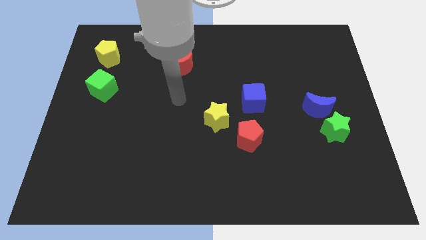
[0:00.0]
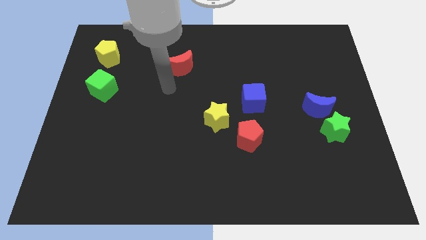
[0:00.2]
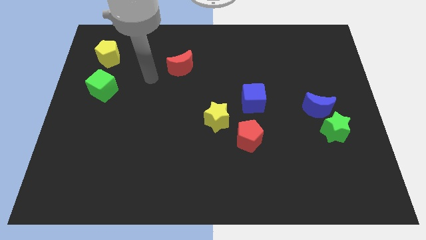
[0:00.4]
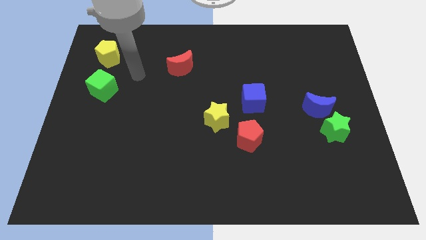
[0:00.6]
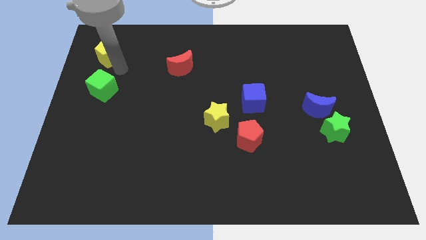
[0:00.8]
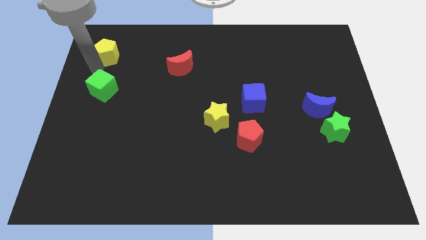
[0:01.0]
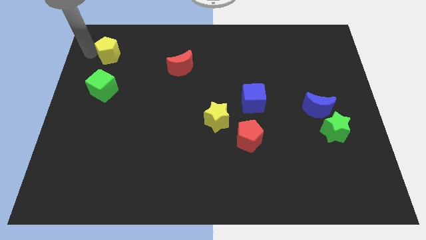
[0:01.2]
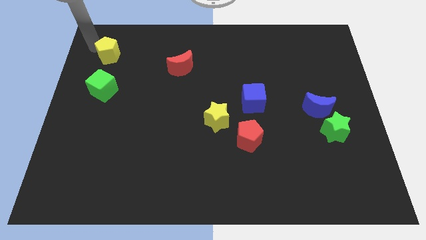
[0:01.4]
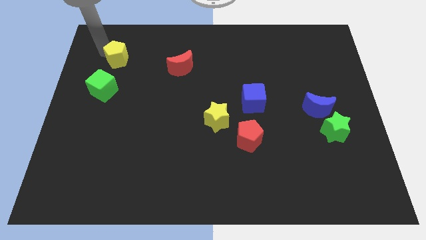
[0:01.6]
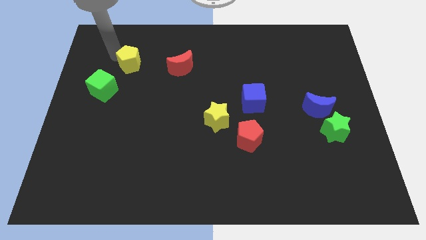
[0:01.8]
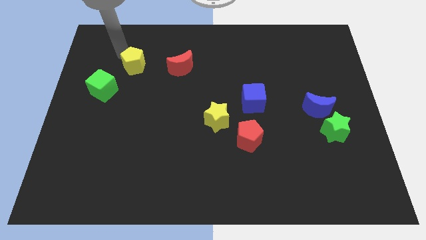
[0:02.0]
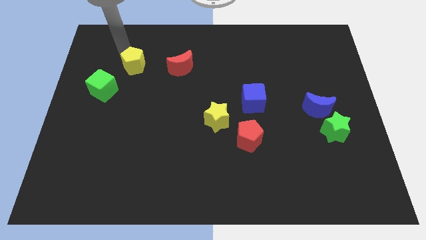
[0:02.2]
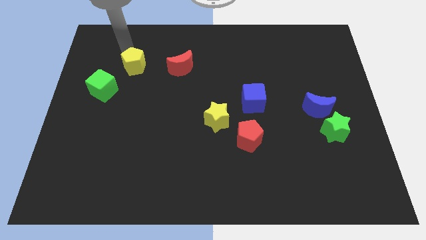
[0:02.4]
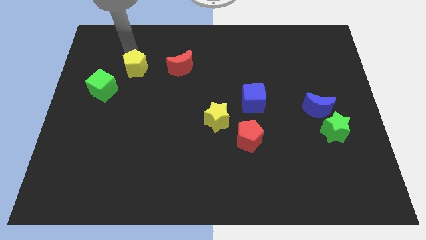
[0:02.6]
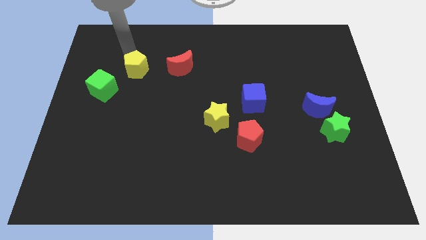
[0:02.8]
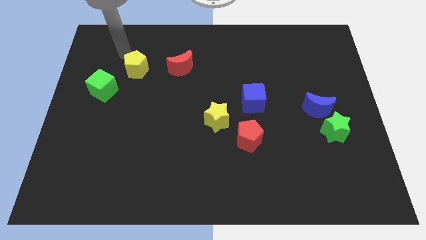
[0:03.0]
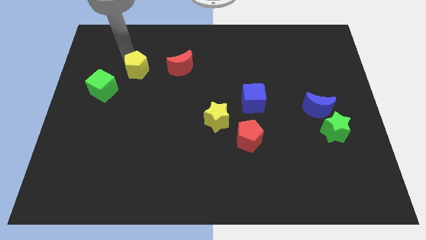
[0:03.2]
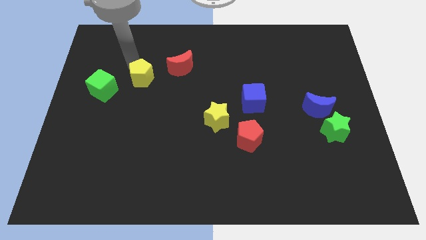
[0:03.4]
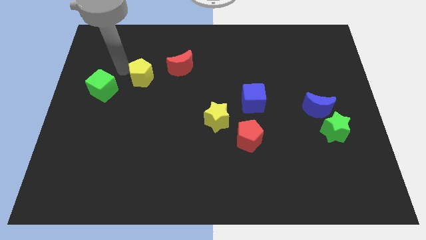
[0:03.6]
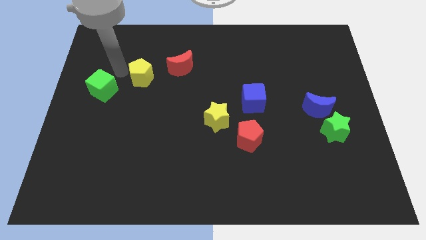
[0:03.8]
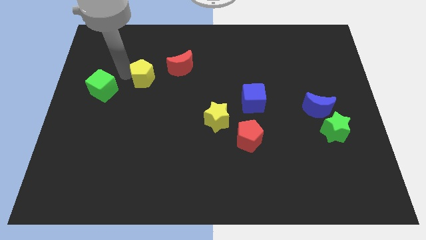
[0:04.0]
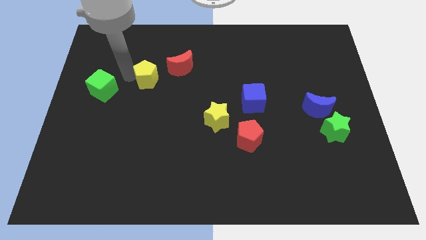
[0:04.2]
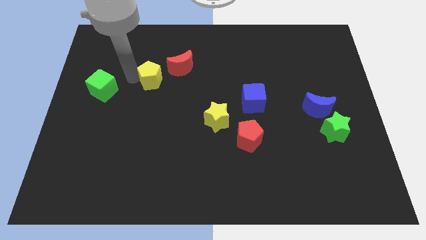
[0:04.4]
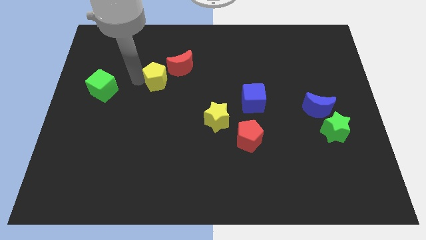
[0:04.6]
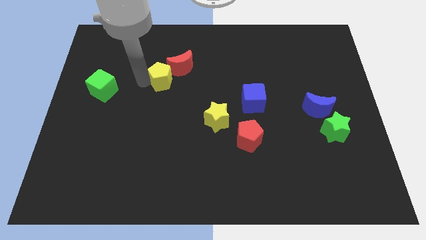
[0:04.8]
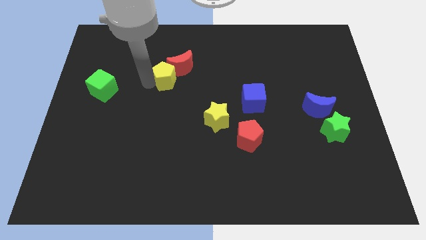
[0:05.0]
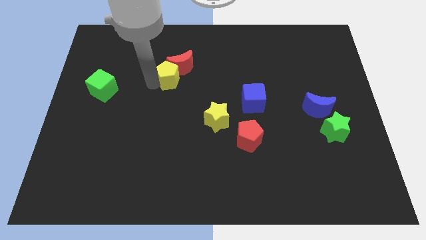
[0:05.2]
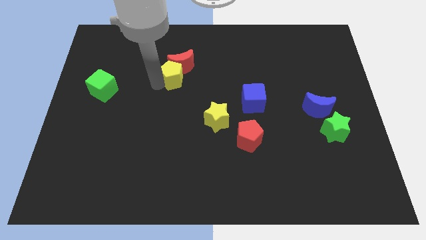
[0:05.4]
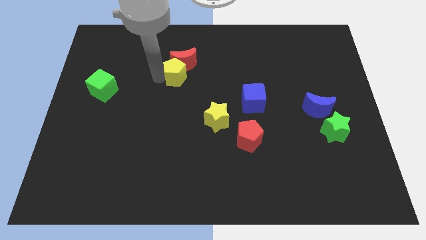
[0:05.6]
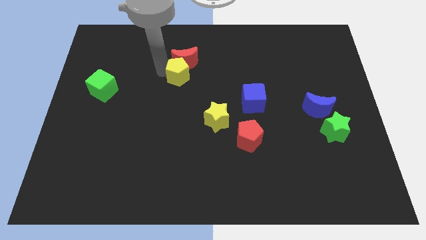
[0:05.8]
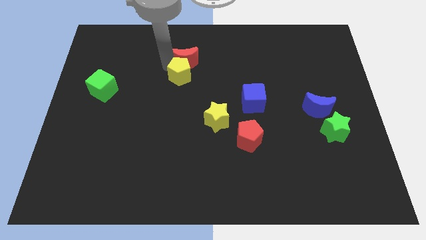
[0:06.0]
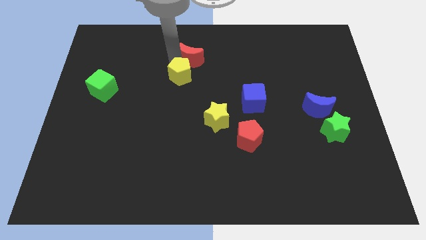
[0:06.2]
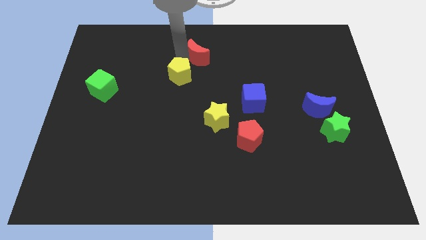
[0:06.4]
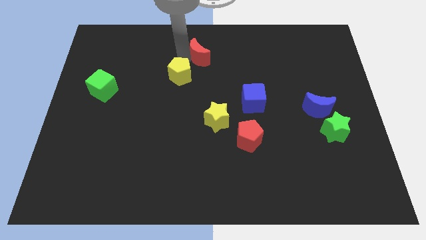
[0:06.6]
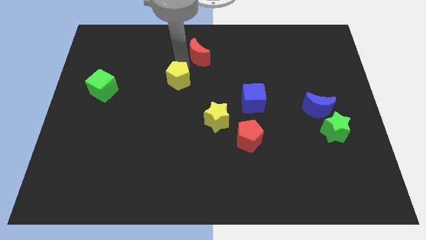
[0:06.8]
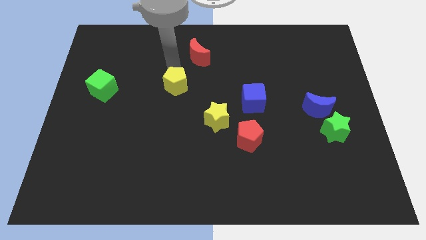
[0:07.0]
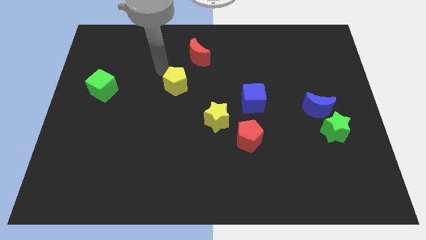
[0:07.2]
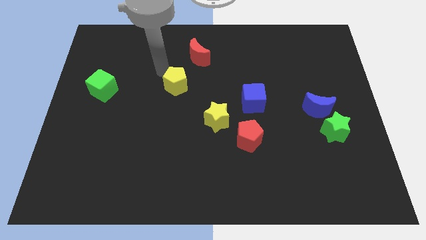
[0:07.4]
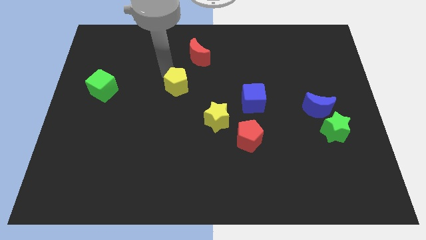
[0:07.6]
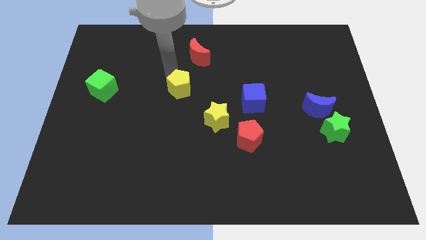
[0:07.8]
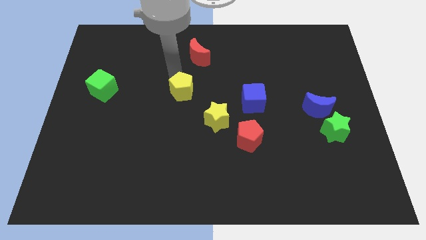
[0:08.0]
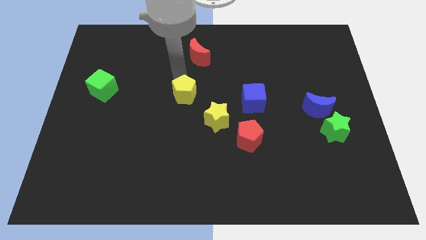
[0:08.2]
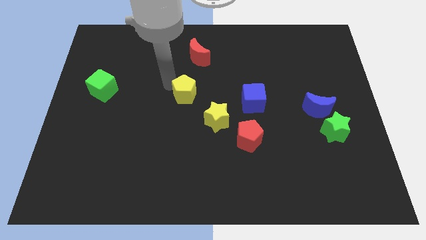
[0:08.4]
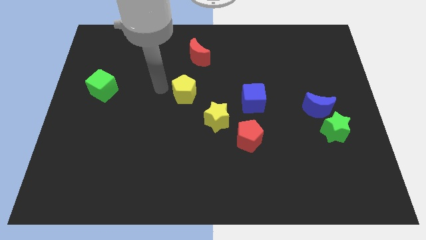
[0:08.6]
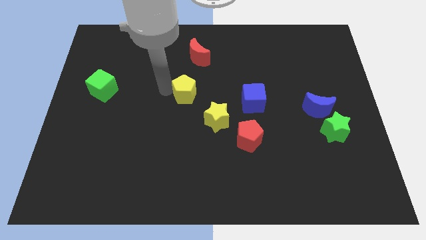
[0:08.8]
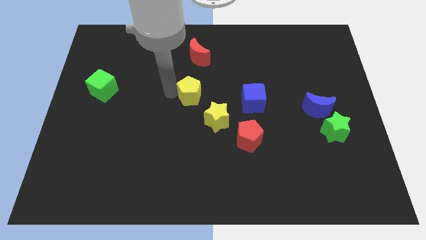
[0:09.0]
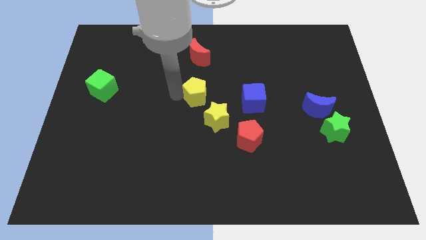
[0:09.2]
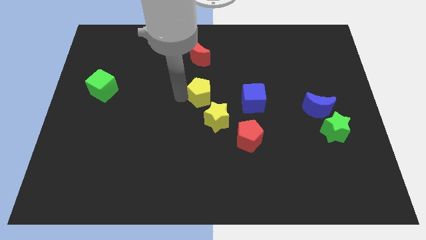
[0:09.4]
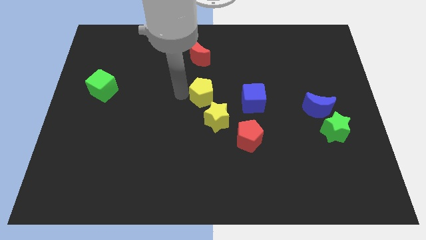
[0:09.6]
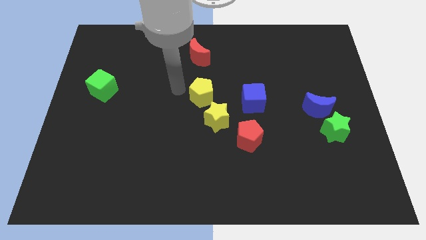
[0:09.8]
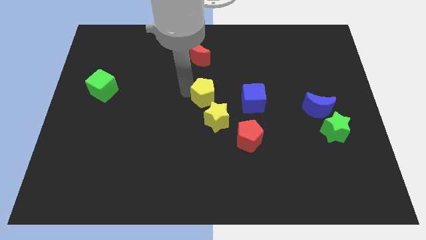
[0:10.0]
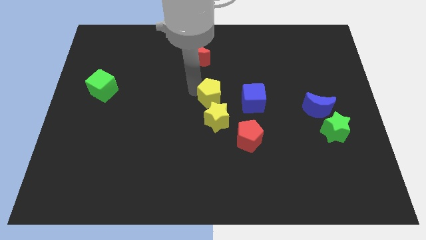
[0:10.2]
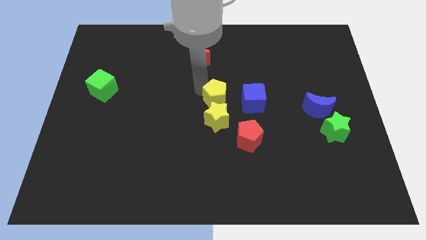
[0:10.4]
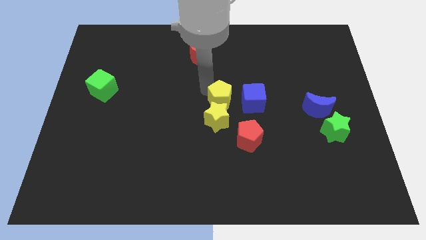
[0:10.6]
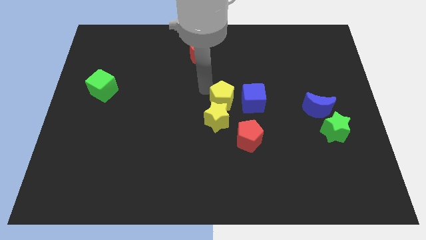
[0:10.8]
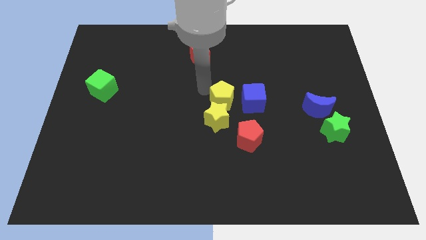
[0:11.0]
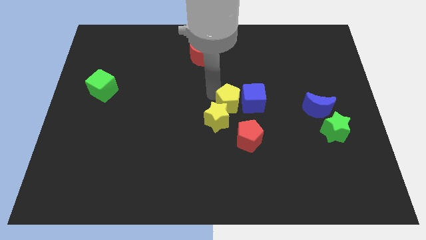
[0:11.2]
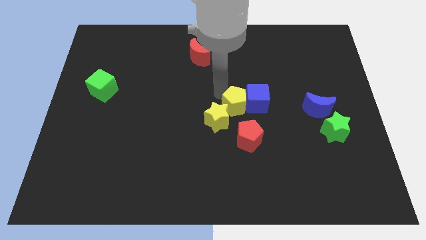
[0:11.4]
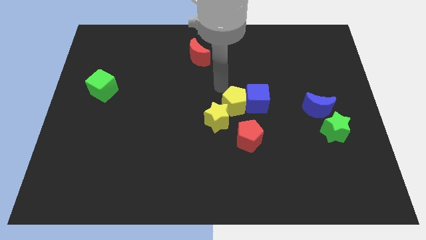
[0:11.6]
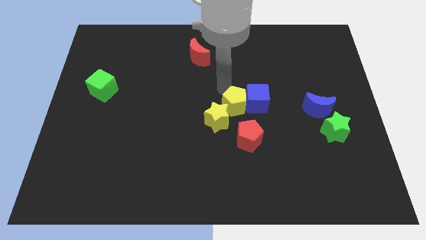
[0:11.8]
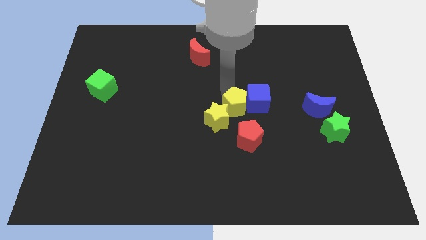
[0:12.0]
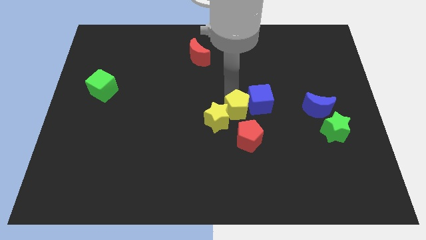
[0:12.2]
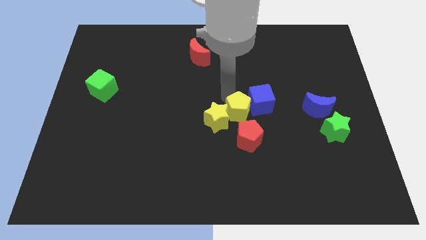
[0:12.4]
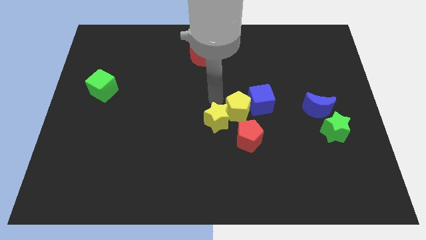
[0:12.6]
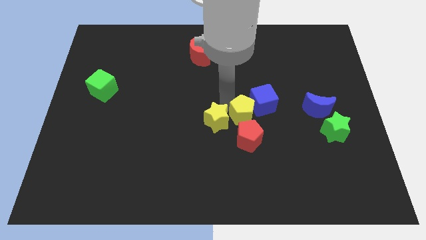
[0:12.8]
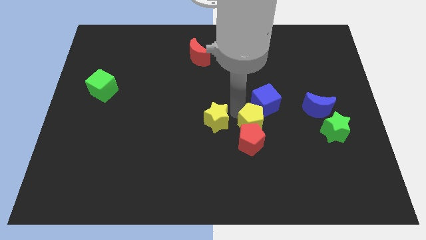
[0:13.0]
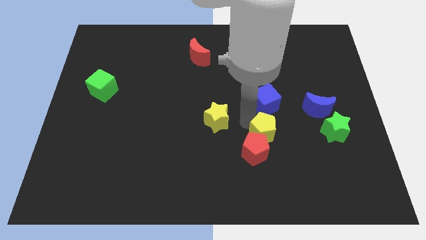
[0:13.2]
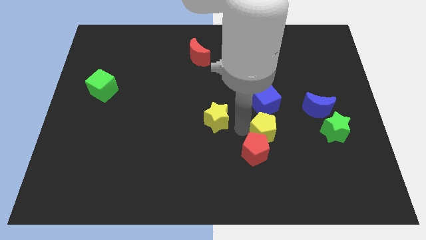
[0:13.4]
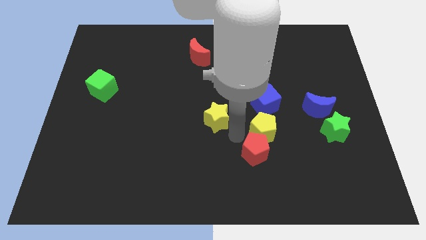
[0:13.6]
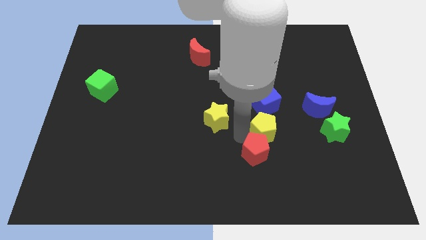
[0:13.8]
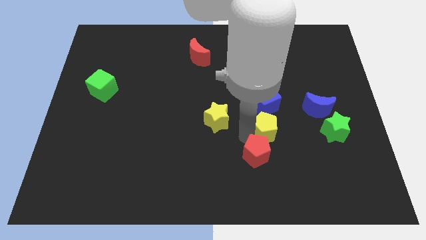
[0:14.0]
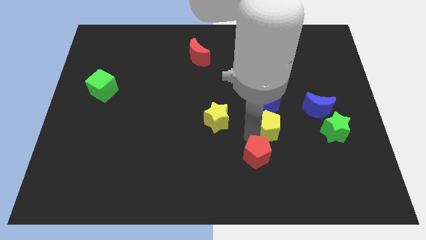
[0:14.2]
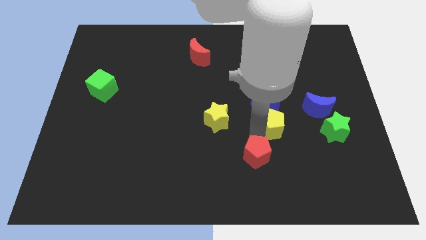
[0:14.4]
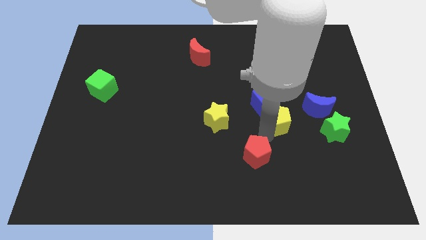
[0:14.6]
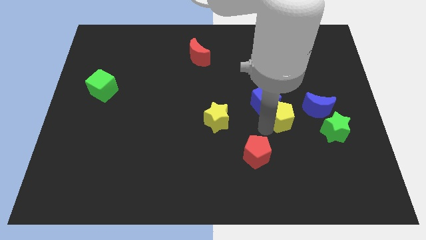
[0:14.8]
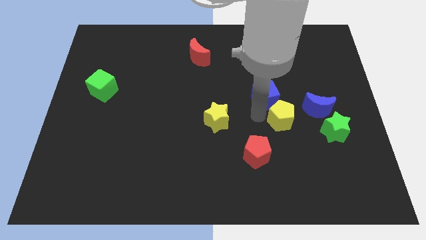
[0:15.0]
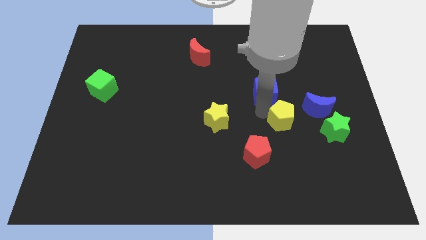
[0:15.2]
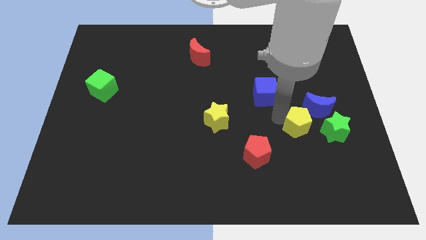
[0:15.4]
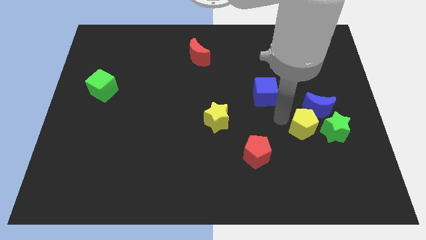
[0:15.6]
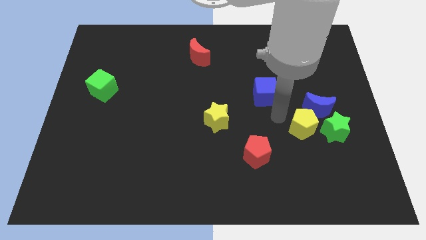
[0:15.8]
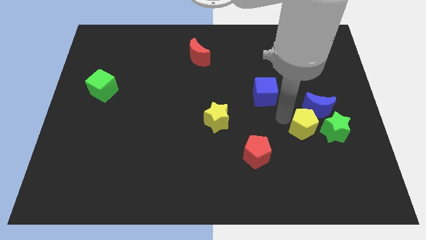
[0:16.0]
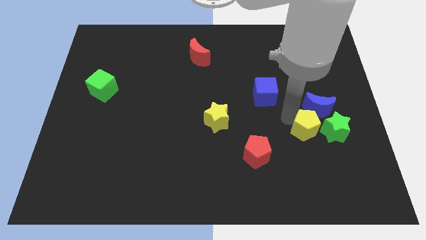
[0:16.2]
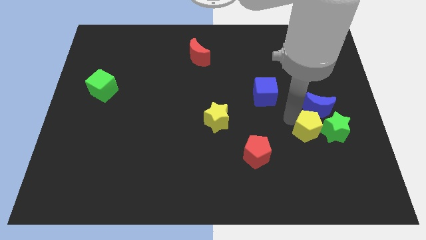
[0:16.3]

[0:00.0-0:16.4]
push the yellow pentagon next to the green star
